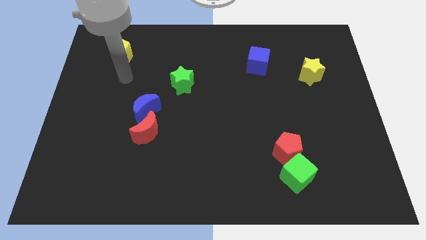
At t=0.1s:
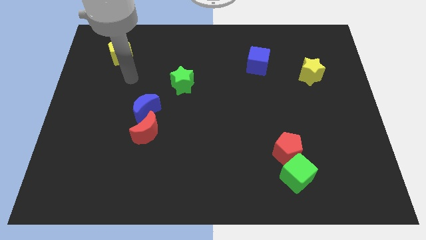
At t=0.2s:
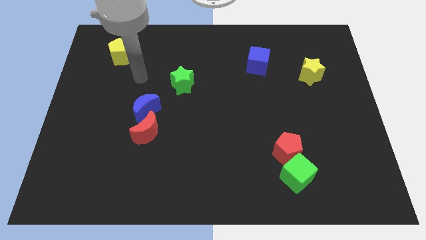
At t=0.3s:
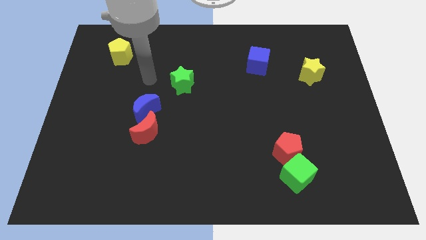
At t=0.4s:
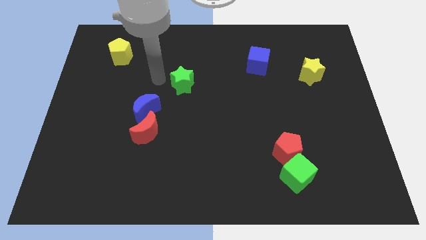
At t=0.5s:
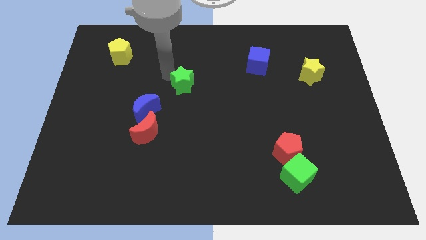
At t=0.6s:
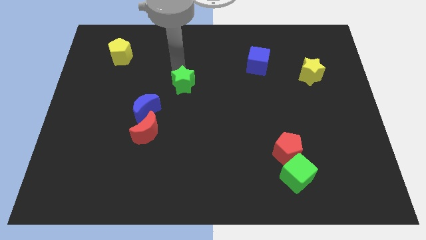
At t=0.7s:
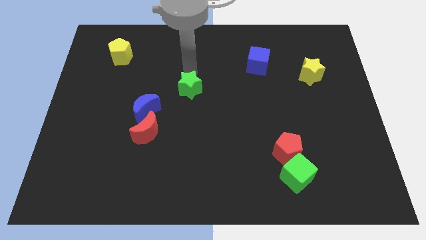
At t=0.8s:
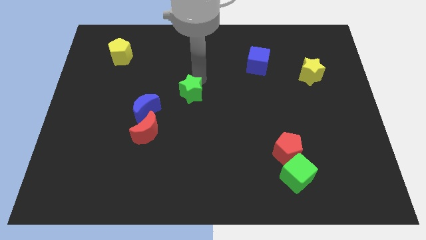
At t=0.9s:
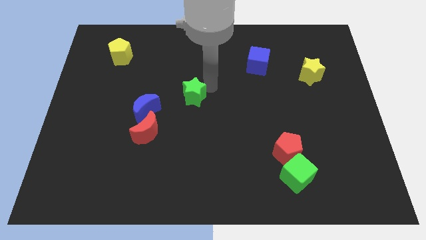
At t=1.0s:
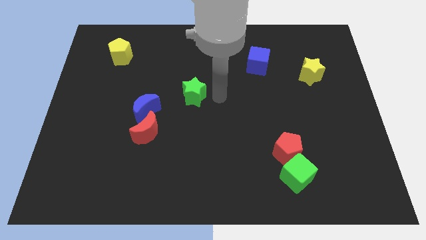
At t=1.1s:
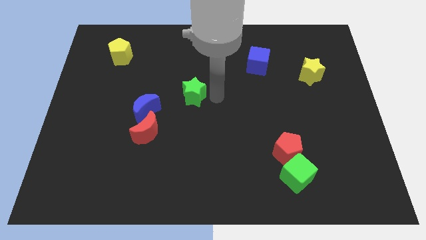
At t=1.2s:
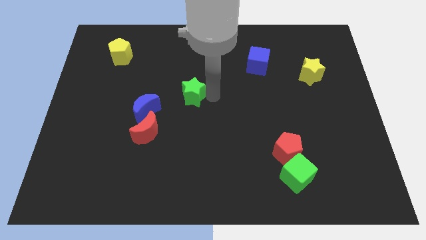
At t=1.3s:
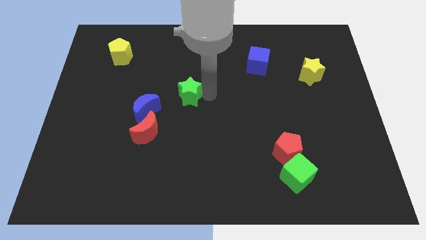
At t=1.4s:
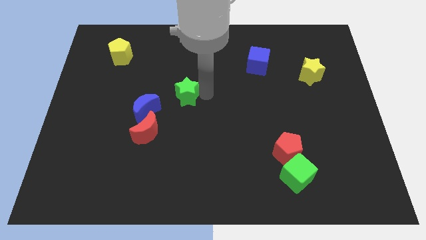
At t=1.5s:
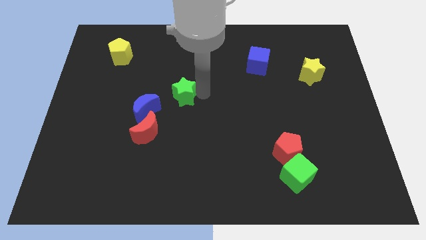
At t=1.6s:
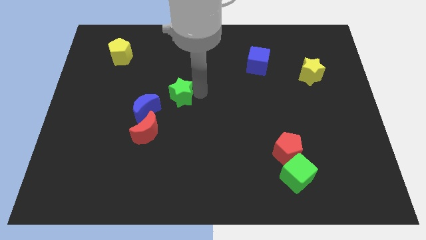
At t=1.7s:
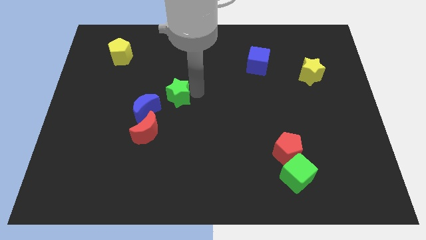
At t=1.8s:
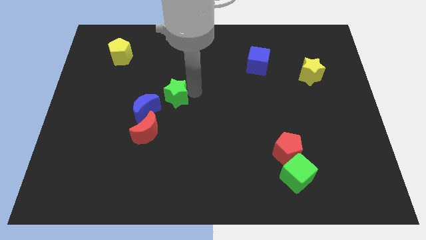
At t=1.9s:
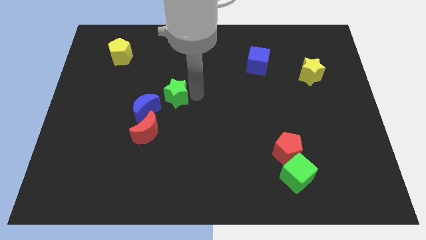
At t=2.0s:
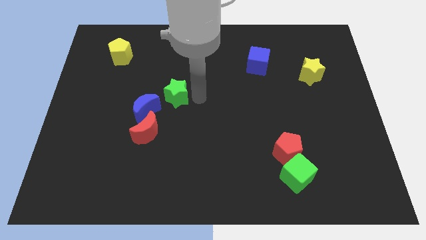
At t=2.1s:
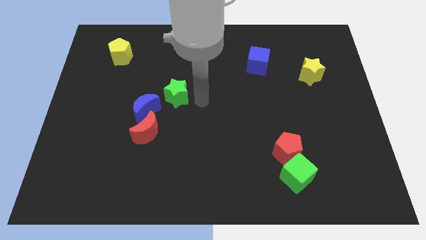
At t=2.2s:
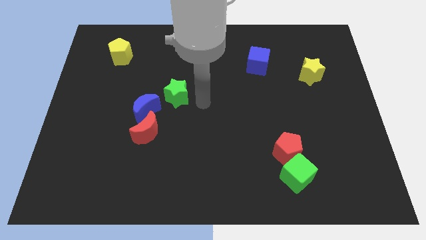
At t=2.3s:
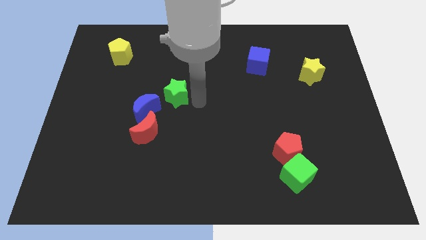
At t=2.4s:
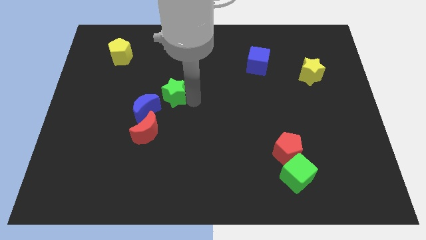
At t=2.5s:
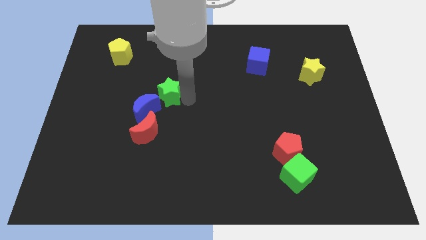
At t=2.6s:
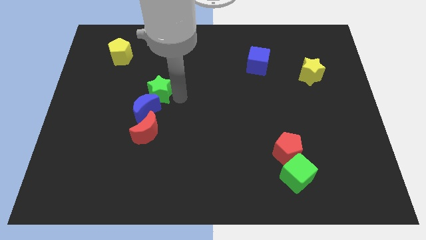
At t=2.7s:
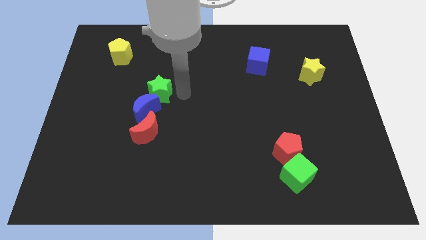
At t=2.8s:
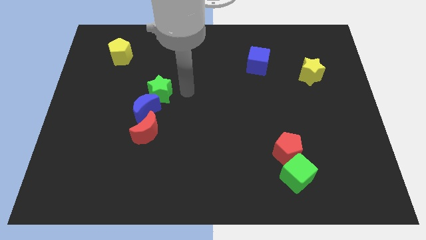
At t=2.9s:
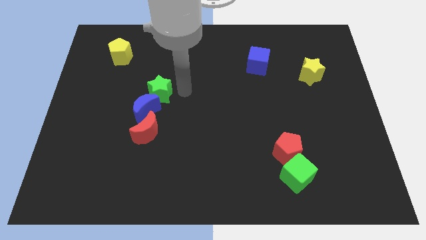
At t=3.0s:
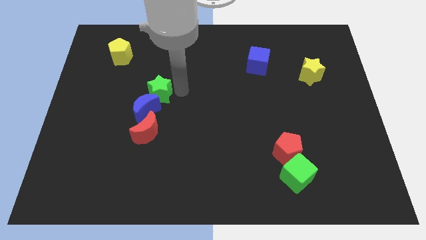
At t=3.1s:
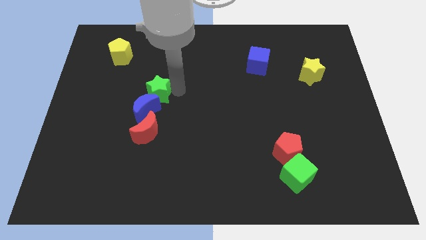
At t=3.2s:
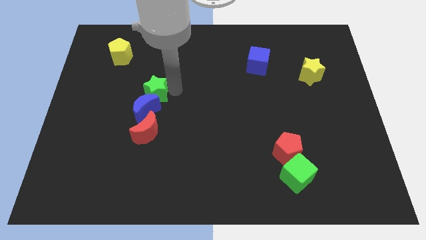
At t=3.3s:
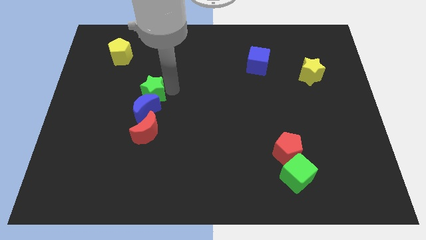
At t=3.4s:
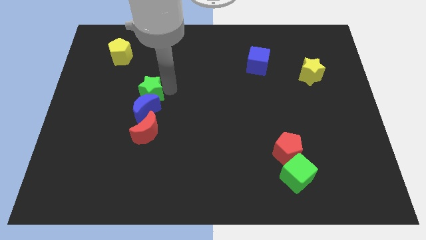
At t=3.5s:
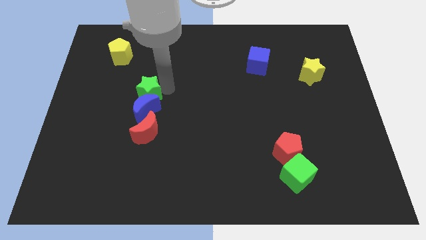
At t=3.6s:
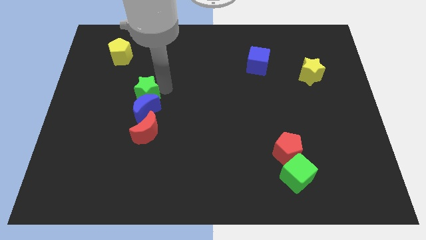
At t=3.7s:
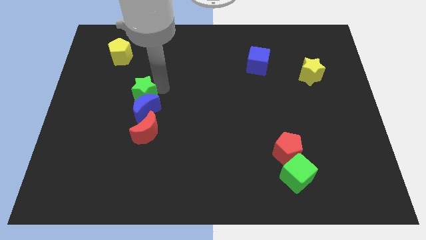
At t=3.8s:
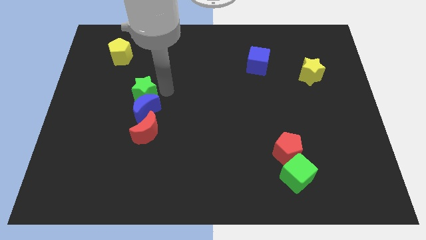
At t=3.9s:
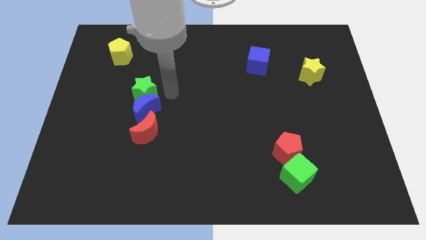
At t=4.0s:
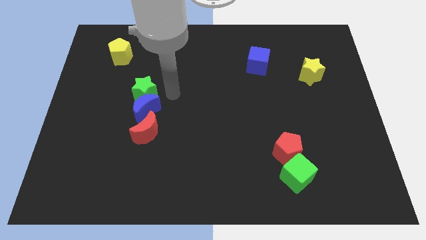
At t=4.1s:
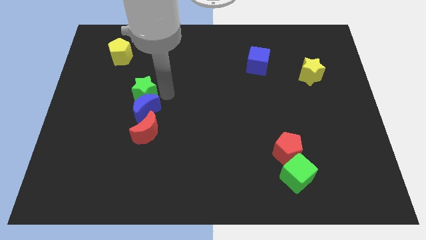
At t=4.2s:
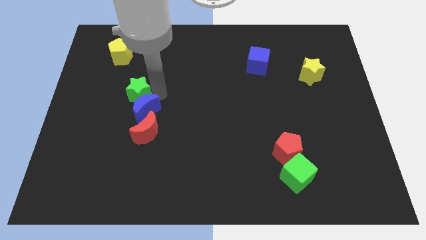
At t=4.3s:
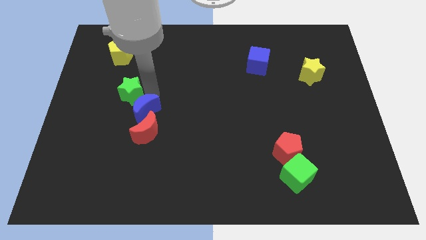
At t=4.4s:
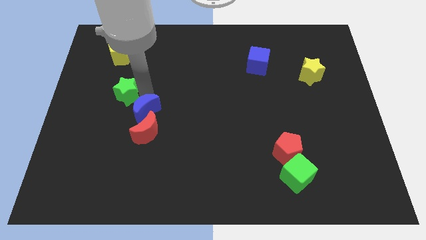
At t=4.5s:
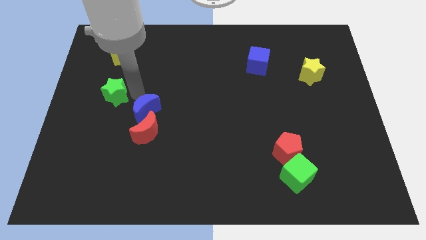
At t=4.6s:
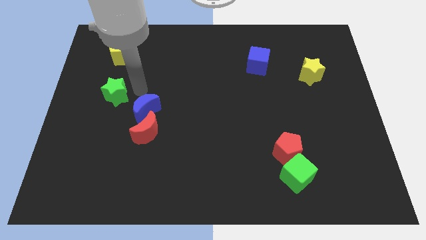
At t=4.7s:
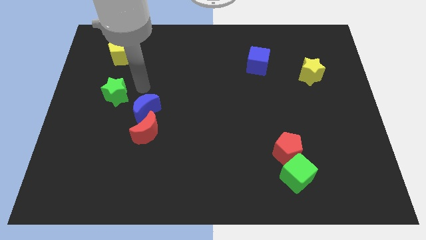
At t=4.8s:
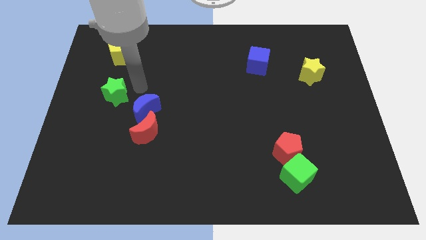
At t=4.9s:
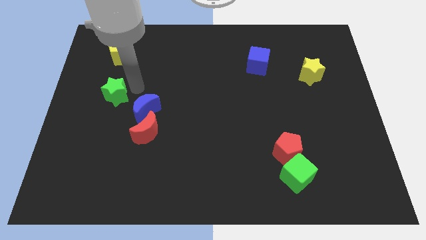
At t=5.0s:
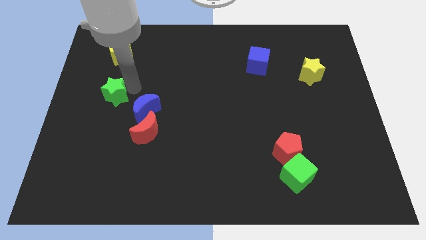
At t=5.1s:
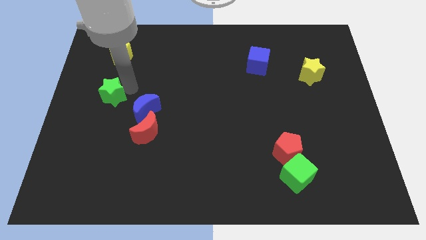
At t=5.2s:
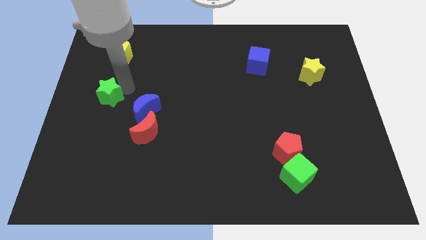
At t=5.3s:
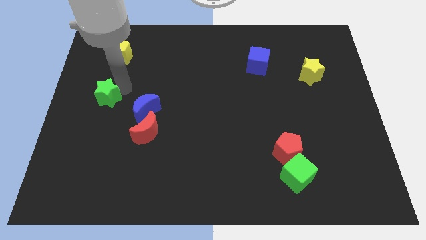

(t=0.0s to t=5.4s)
put the green star to the center left

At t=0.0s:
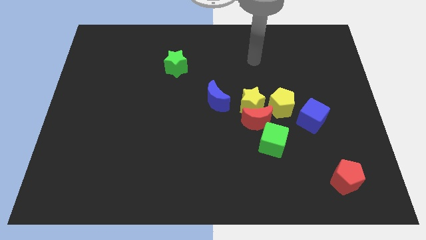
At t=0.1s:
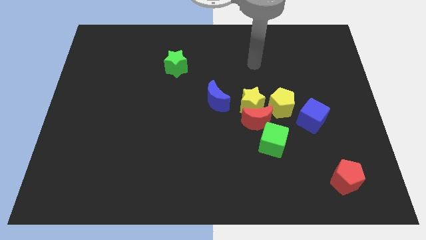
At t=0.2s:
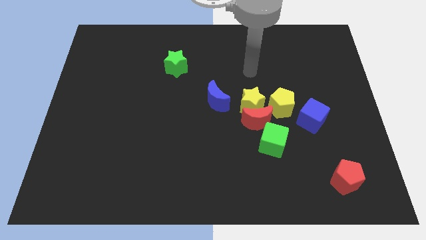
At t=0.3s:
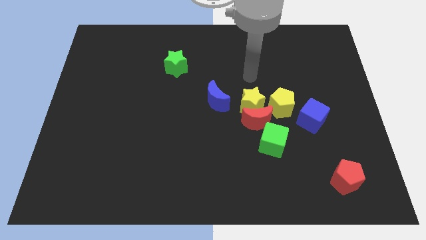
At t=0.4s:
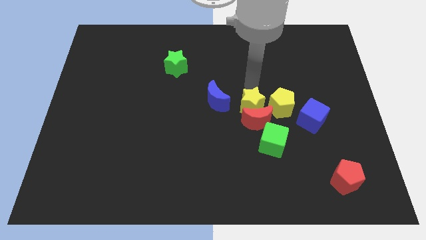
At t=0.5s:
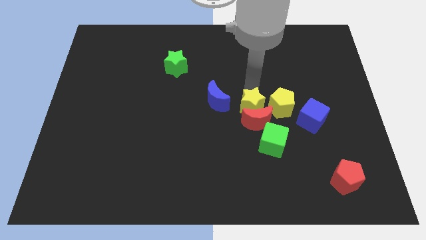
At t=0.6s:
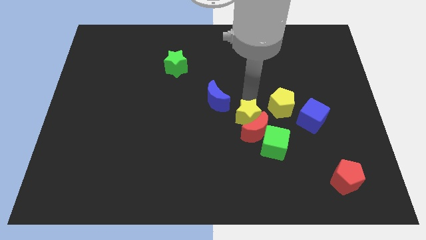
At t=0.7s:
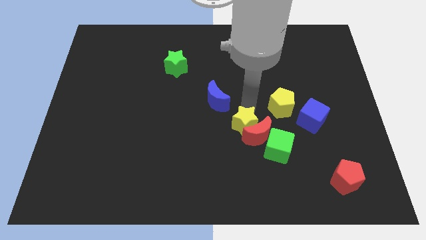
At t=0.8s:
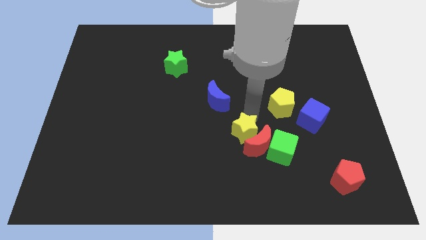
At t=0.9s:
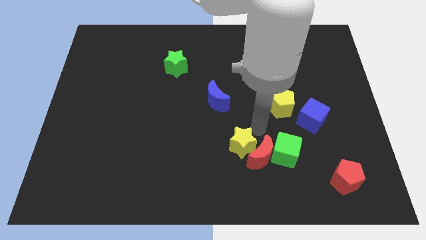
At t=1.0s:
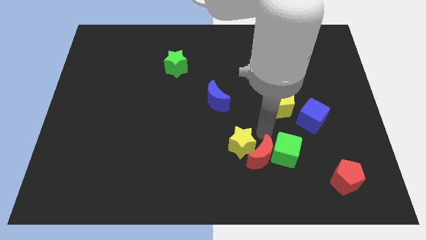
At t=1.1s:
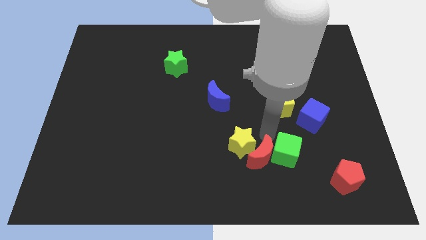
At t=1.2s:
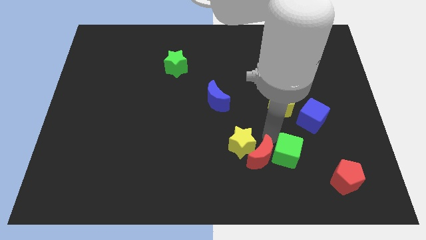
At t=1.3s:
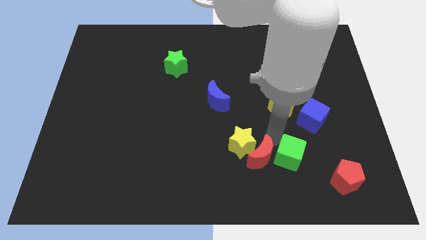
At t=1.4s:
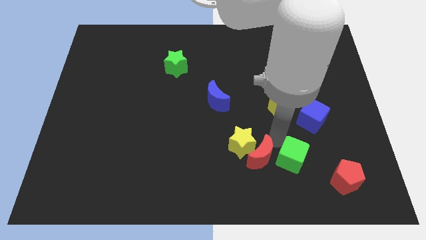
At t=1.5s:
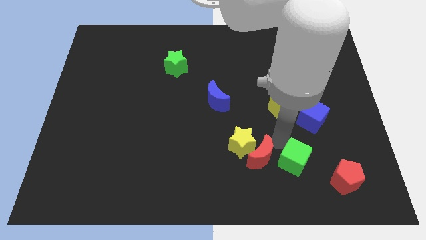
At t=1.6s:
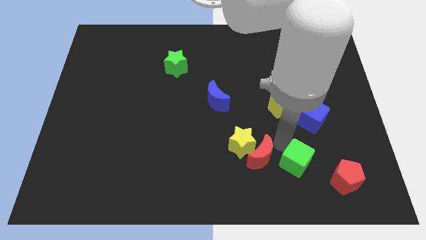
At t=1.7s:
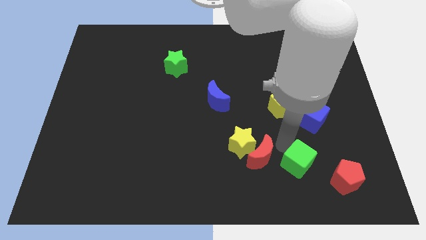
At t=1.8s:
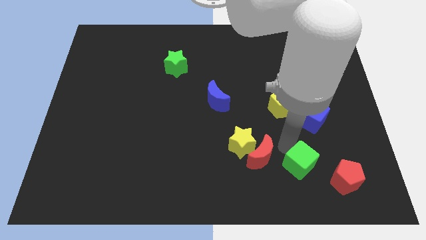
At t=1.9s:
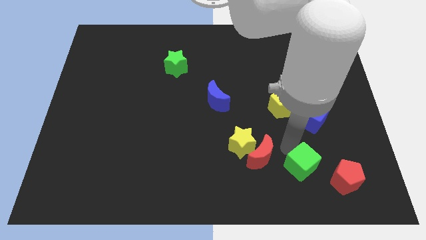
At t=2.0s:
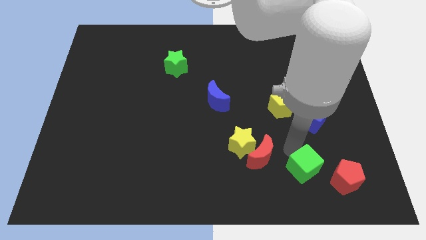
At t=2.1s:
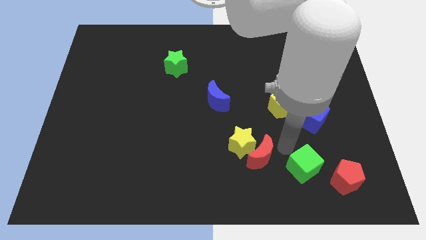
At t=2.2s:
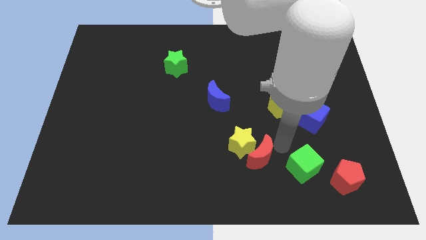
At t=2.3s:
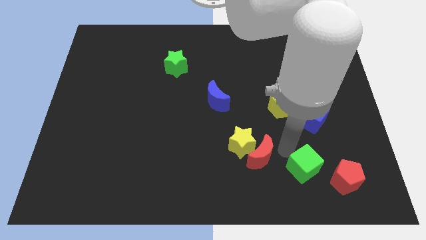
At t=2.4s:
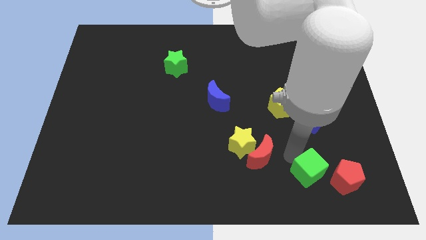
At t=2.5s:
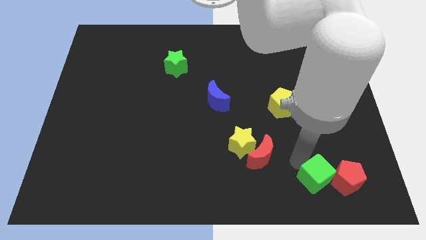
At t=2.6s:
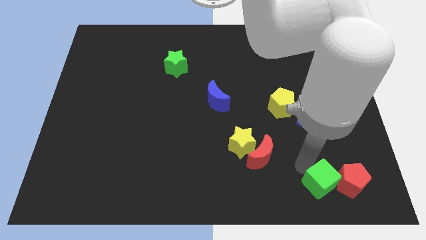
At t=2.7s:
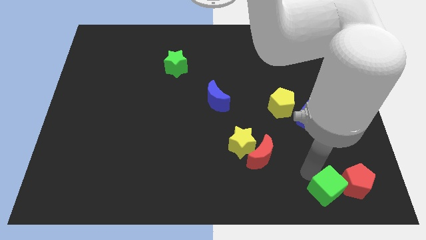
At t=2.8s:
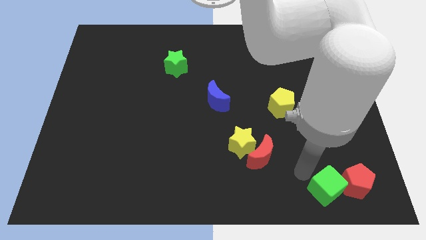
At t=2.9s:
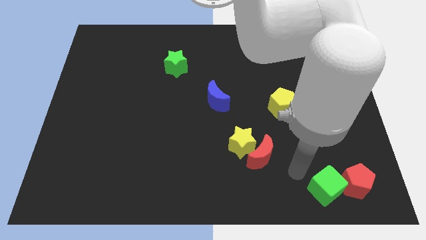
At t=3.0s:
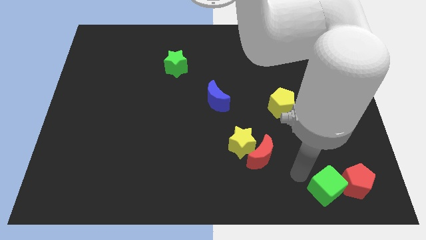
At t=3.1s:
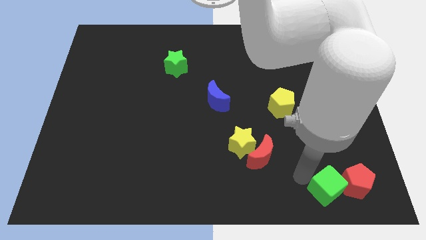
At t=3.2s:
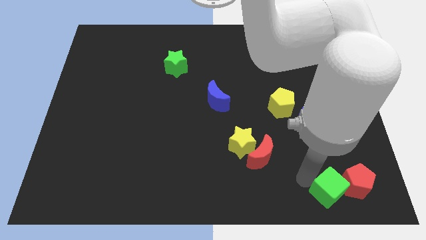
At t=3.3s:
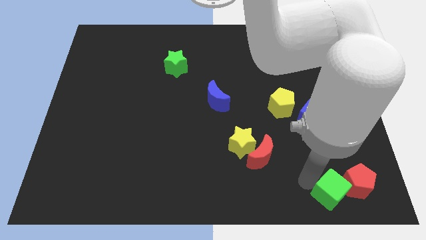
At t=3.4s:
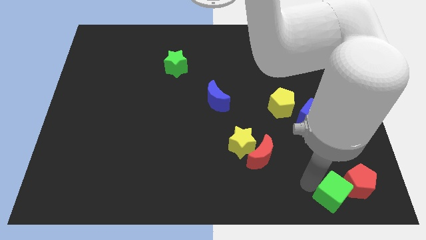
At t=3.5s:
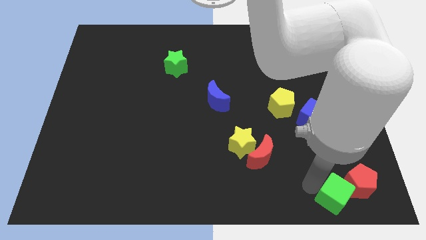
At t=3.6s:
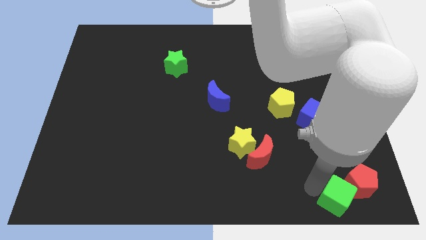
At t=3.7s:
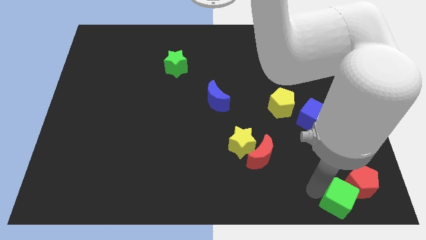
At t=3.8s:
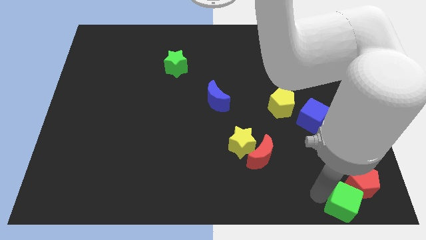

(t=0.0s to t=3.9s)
slide the green cube to the bottom right
